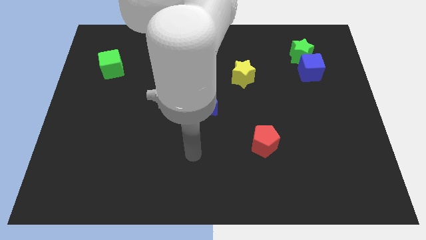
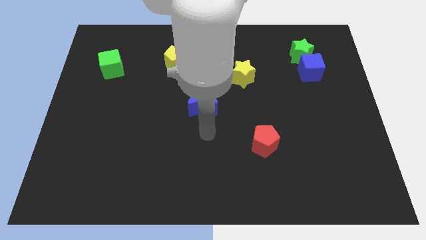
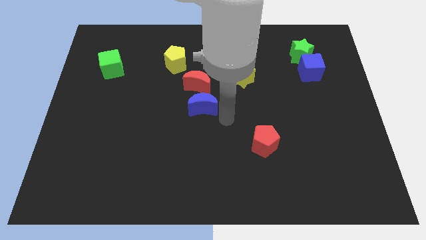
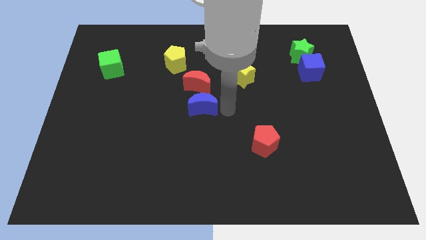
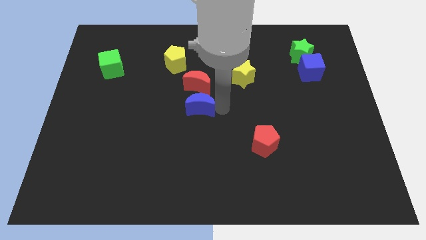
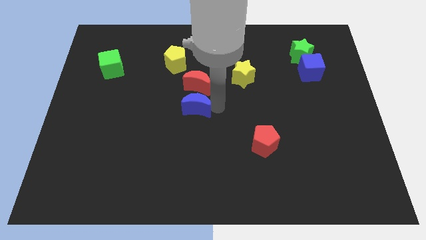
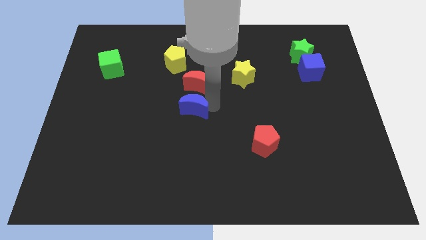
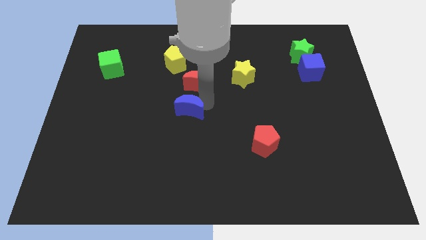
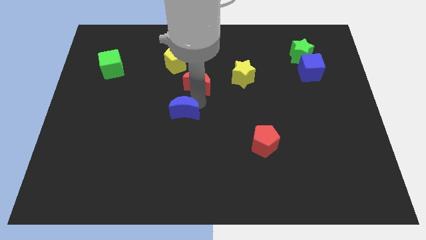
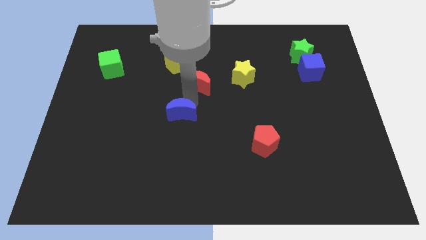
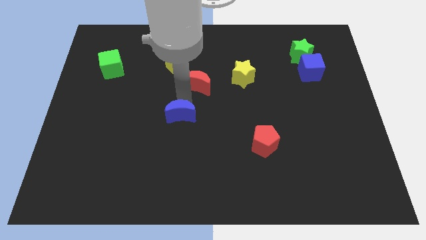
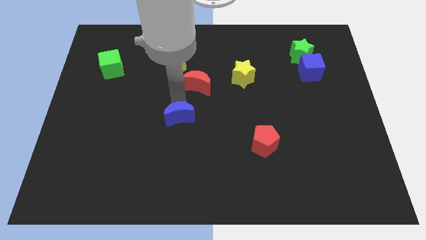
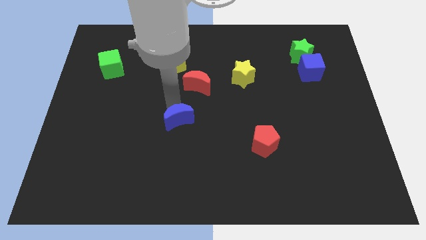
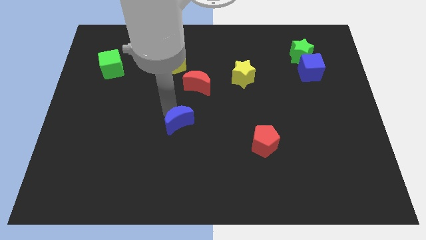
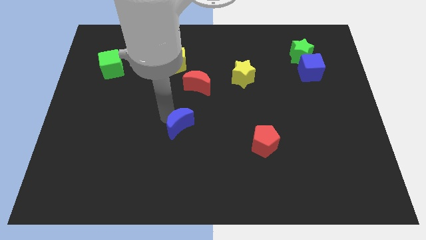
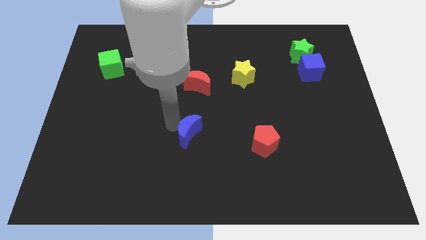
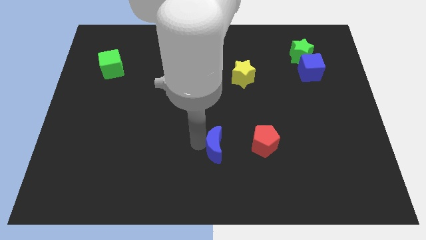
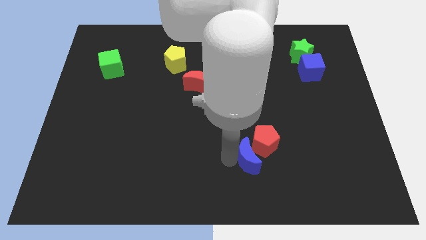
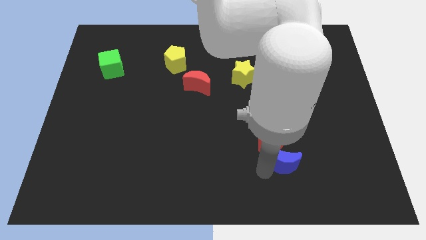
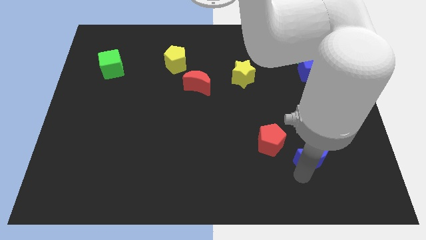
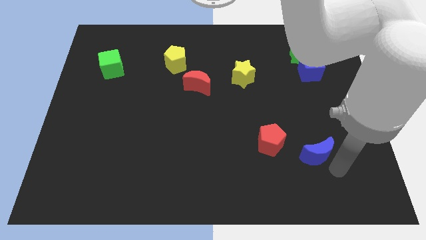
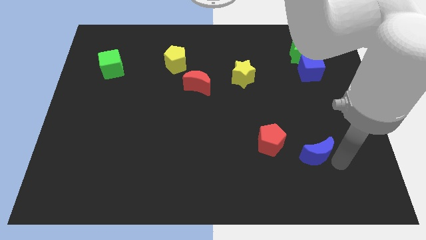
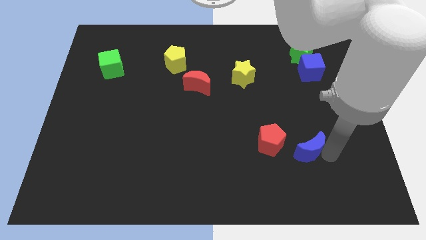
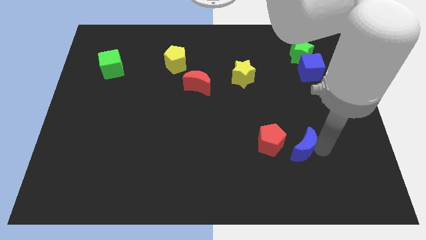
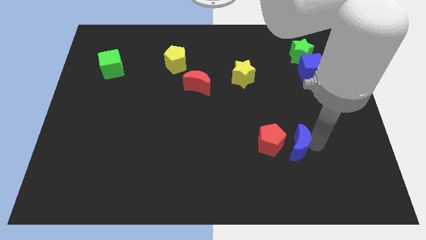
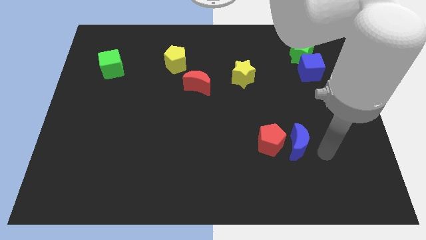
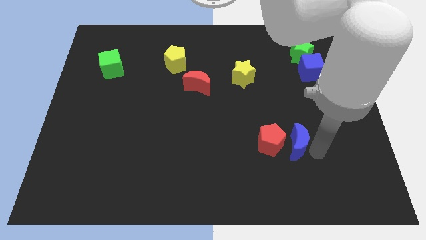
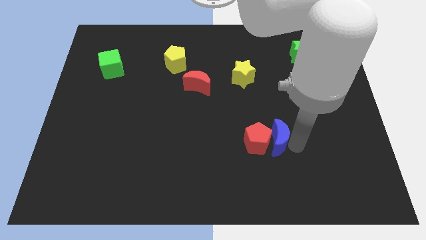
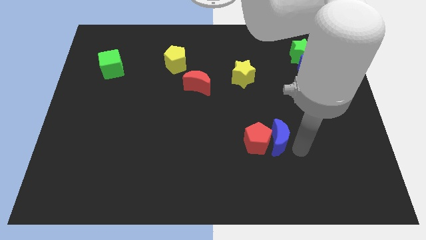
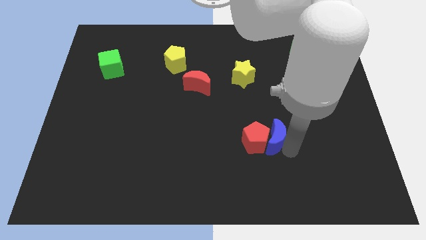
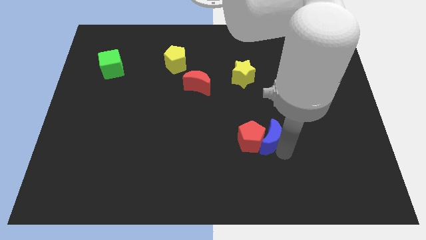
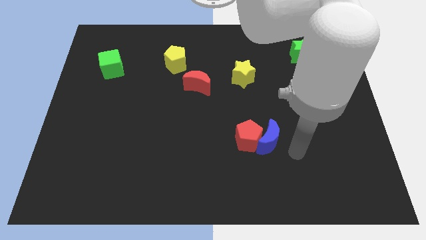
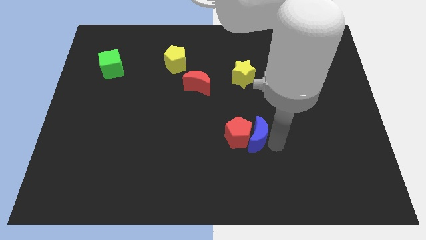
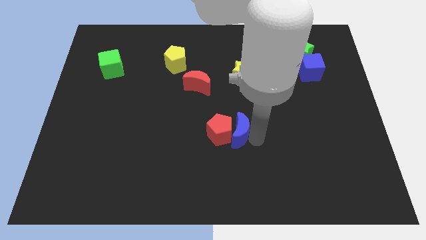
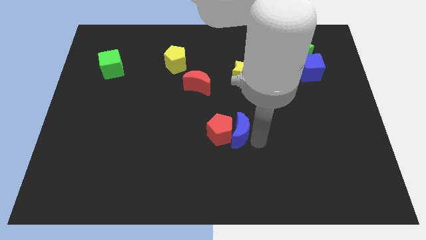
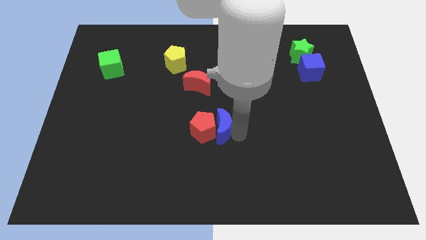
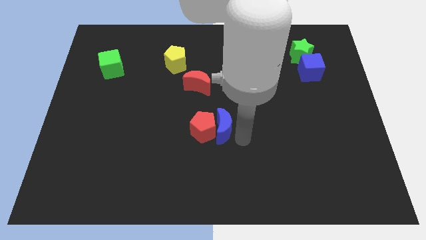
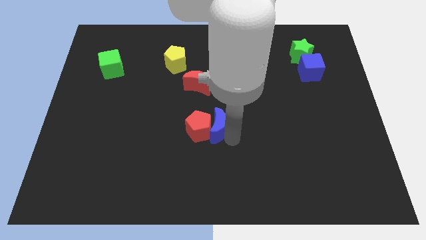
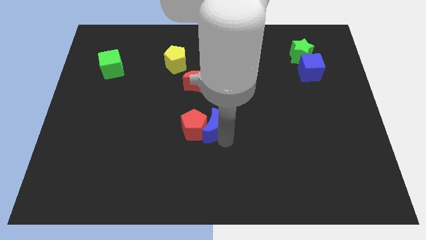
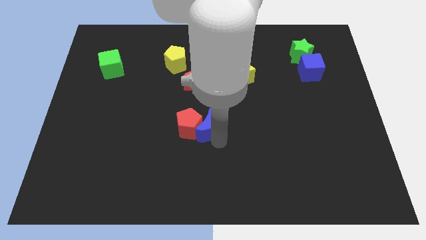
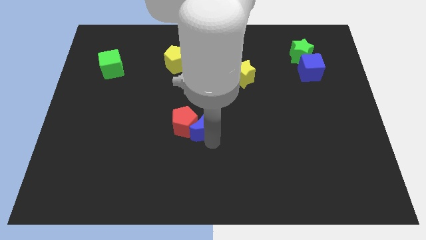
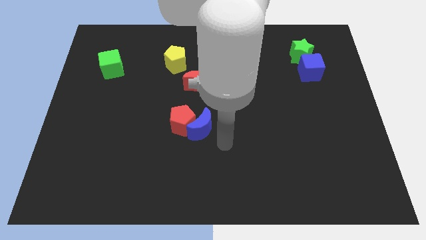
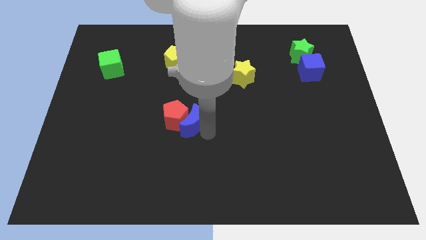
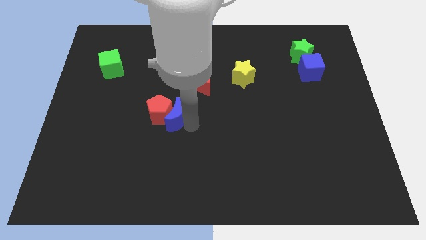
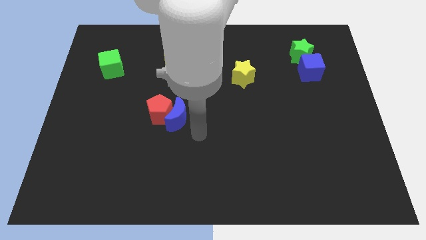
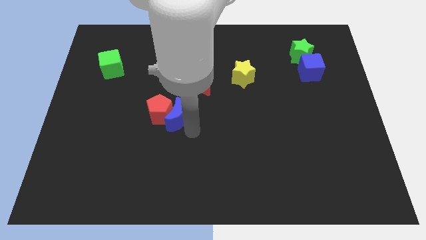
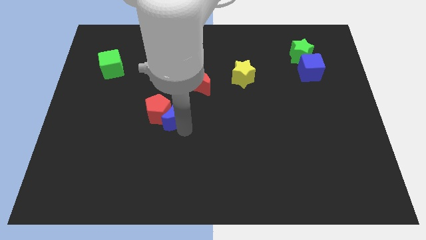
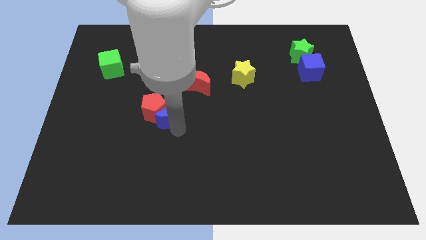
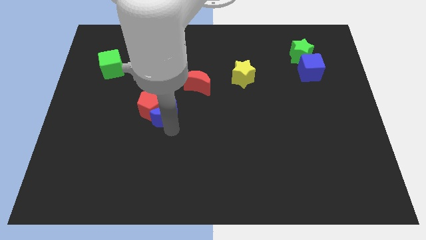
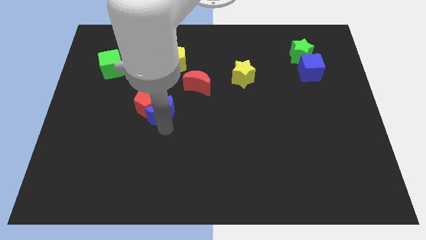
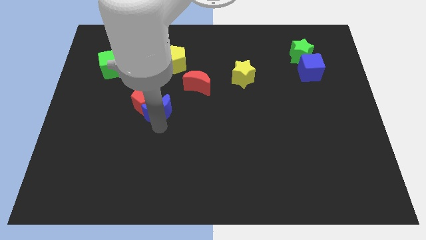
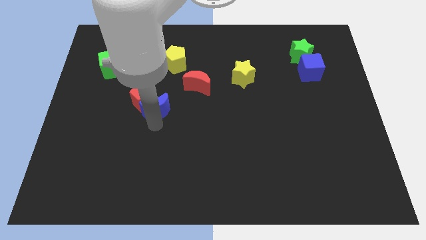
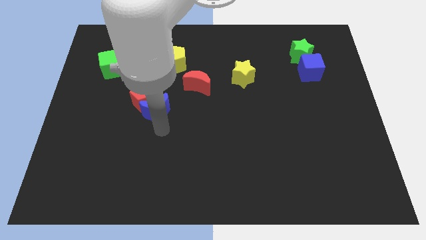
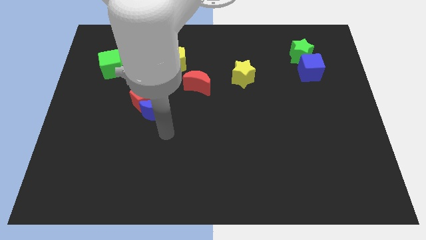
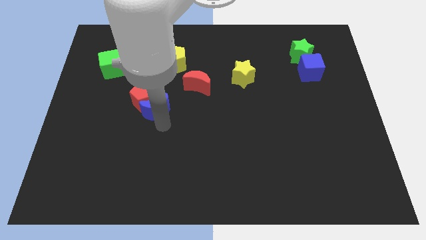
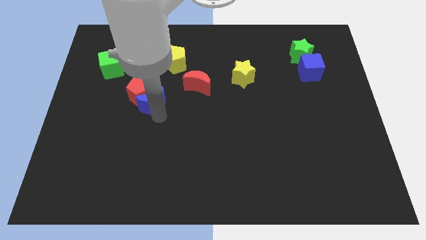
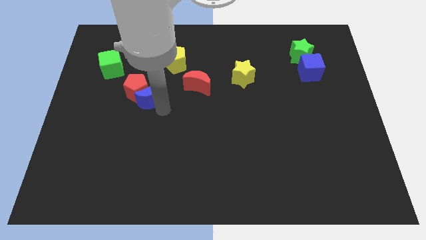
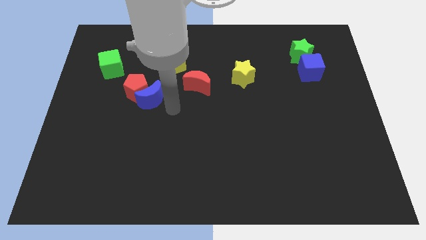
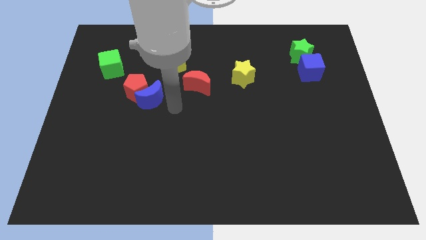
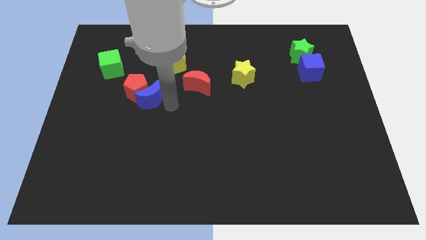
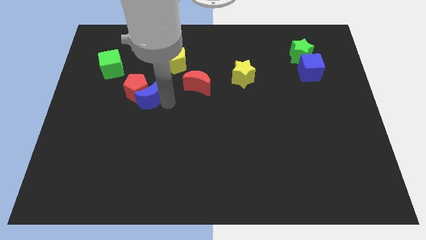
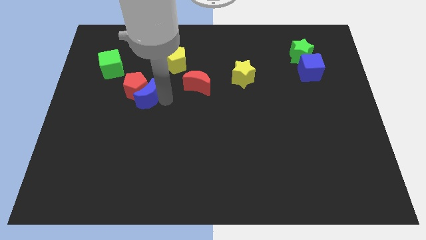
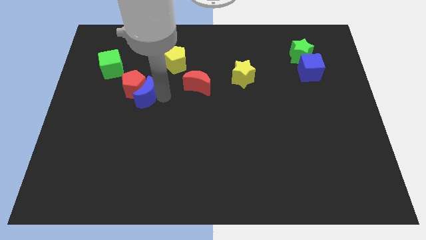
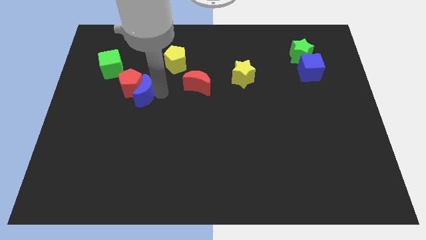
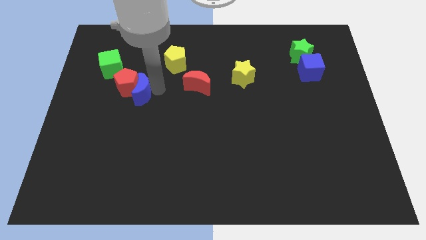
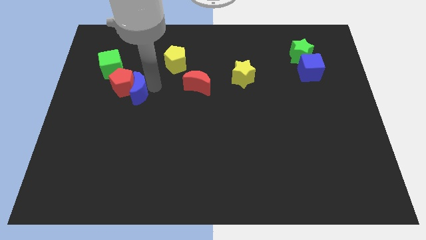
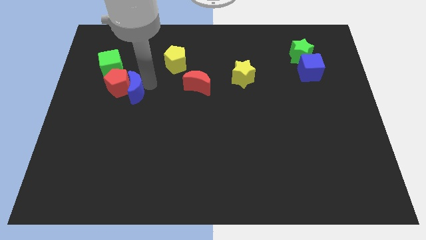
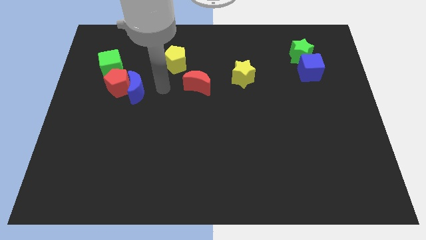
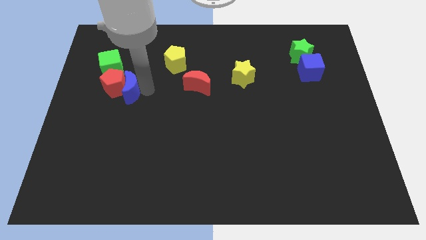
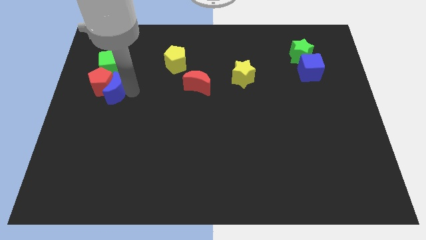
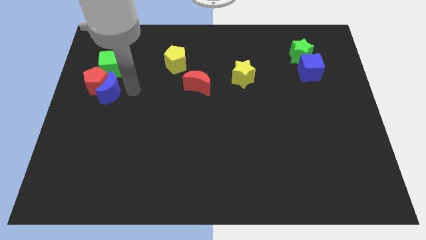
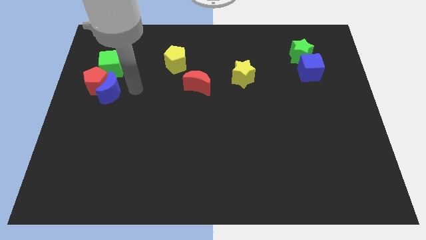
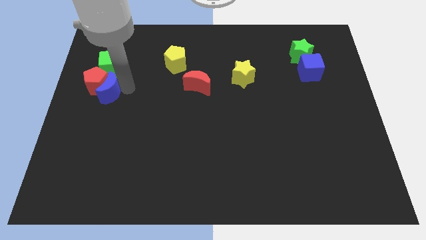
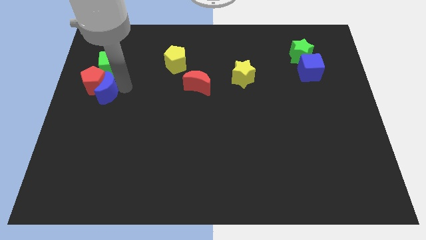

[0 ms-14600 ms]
move the blue moon to the left side
